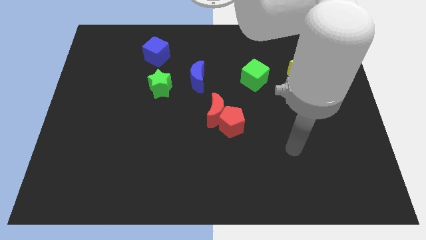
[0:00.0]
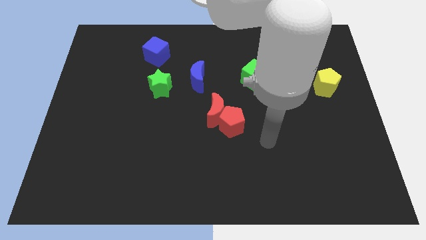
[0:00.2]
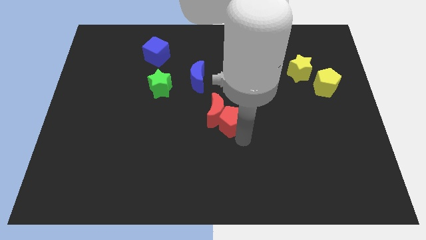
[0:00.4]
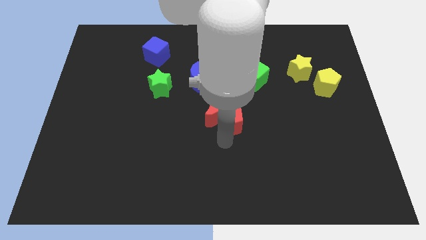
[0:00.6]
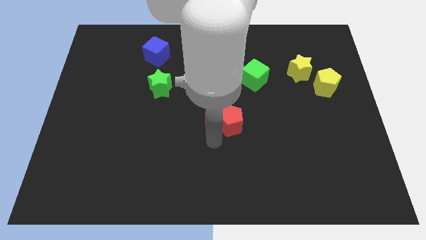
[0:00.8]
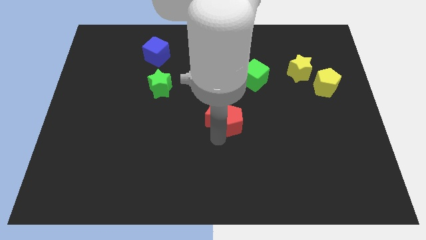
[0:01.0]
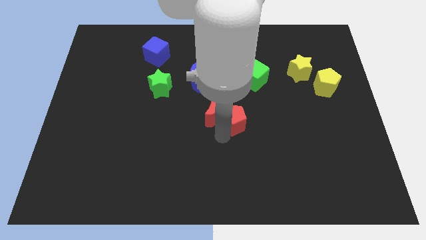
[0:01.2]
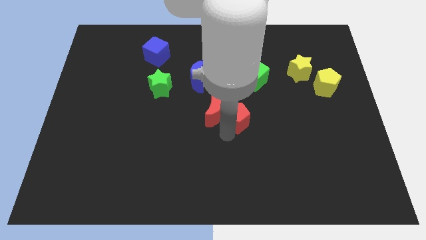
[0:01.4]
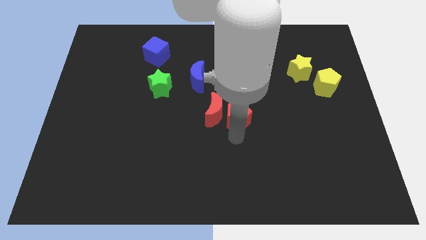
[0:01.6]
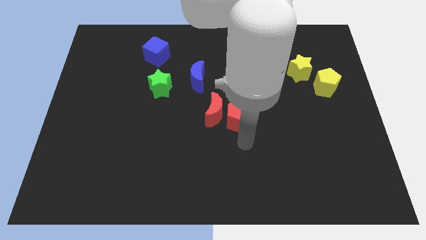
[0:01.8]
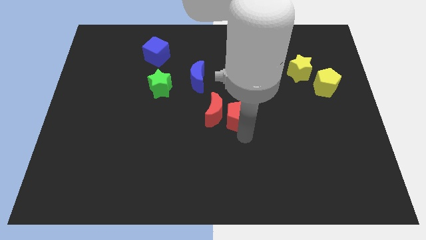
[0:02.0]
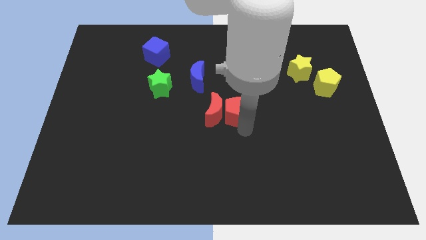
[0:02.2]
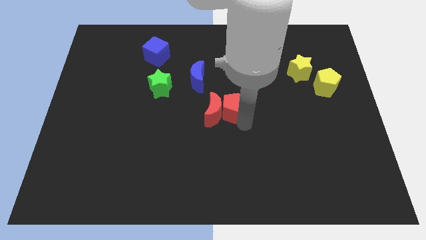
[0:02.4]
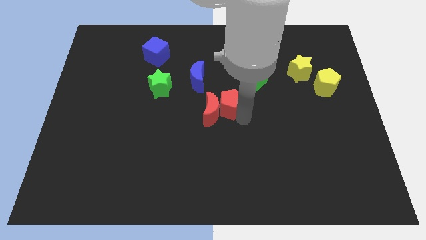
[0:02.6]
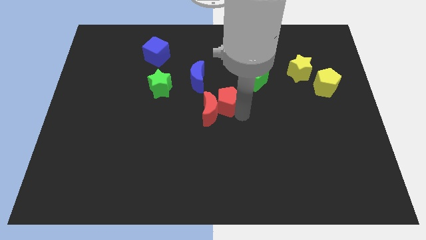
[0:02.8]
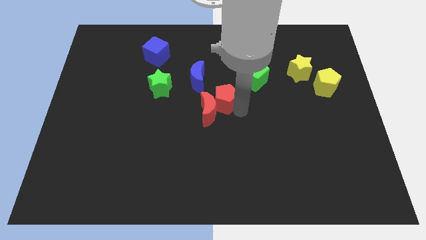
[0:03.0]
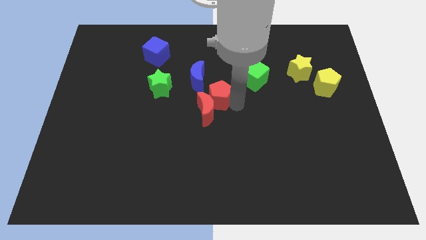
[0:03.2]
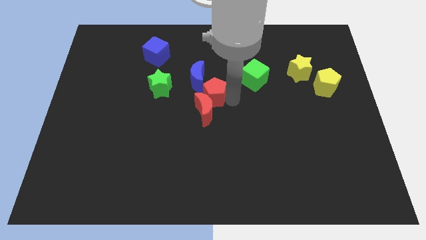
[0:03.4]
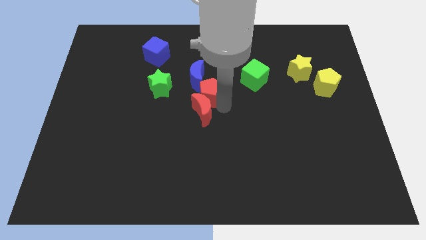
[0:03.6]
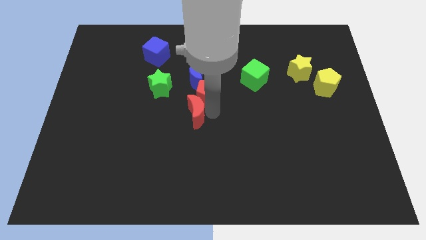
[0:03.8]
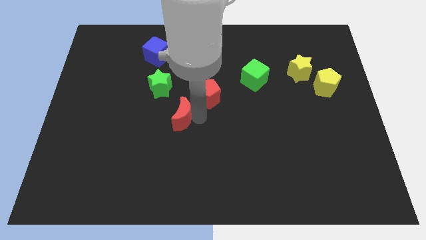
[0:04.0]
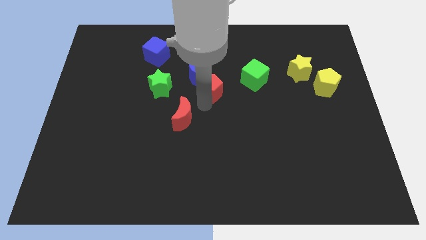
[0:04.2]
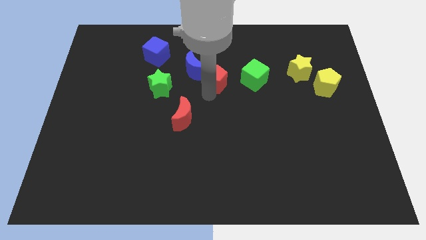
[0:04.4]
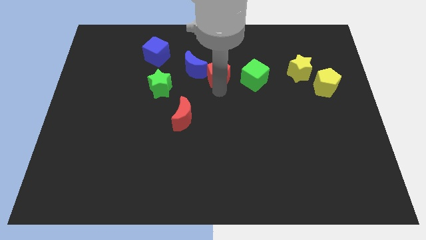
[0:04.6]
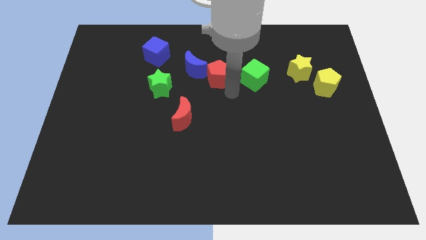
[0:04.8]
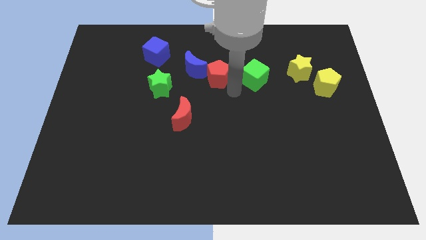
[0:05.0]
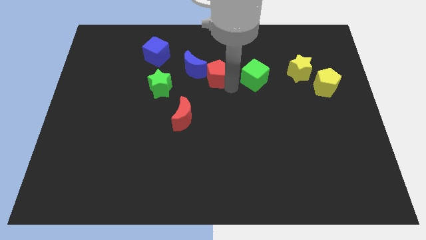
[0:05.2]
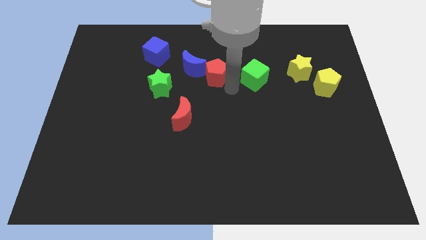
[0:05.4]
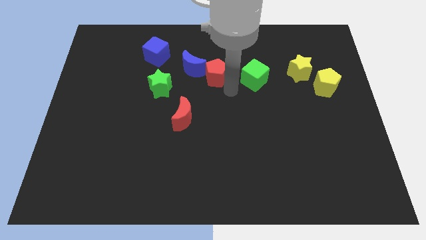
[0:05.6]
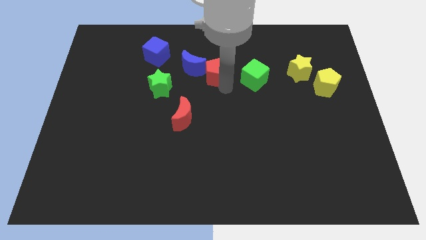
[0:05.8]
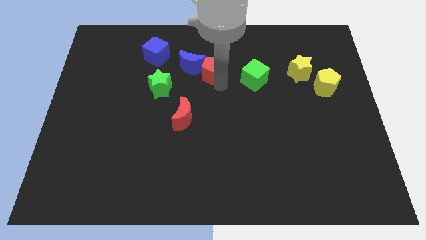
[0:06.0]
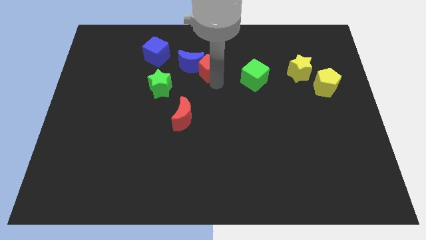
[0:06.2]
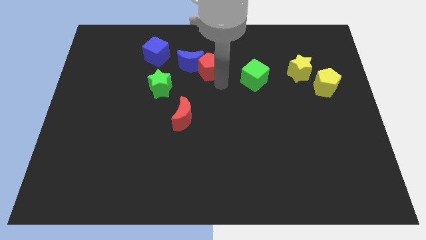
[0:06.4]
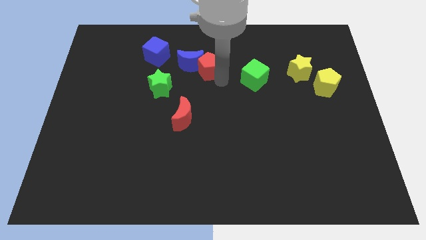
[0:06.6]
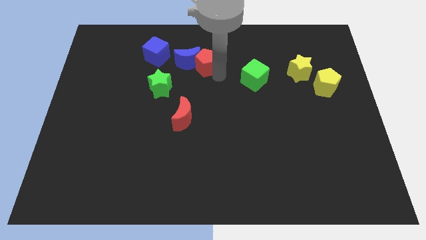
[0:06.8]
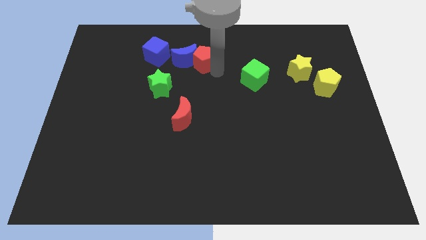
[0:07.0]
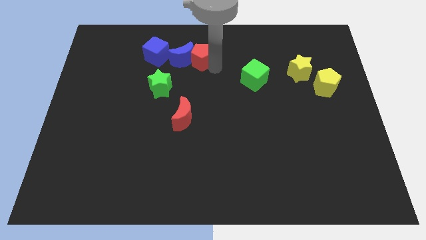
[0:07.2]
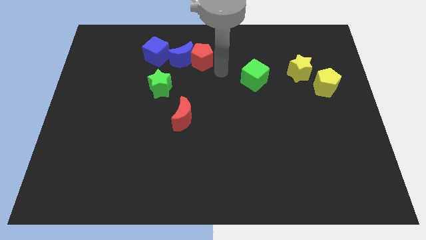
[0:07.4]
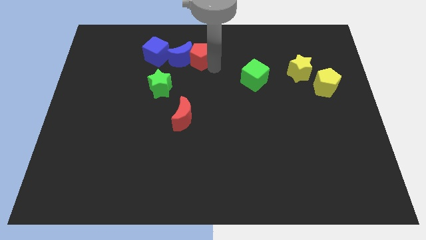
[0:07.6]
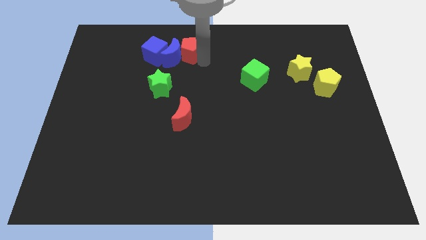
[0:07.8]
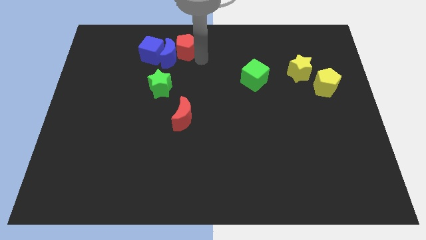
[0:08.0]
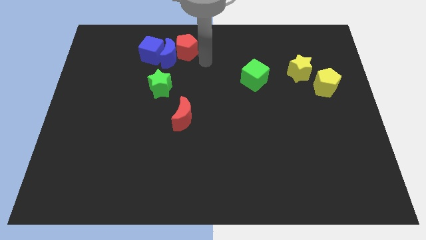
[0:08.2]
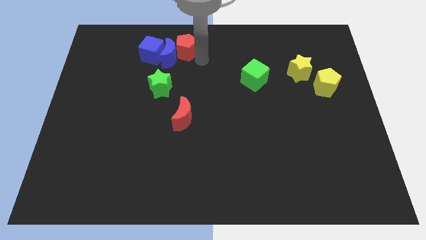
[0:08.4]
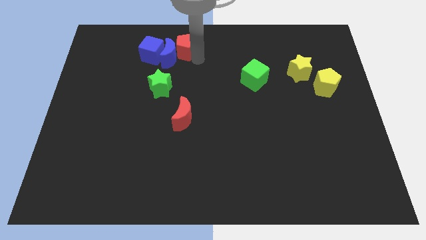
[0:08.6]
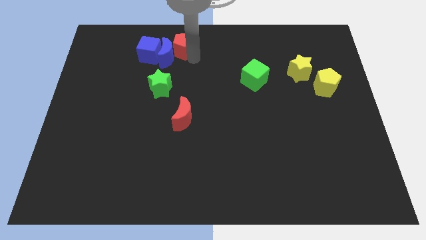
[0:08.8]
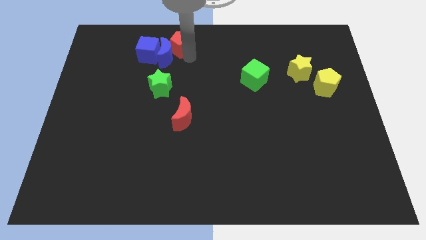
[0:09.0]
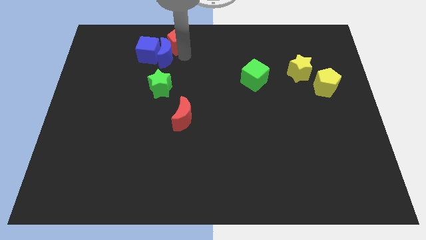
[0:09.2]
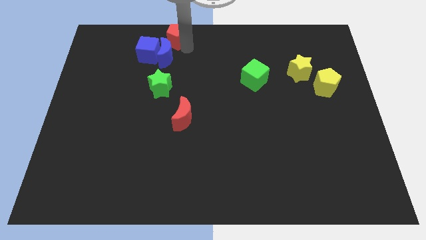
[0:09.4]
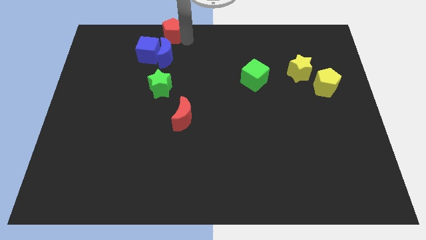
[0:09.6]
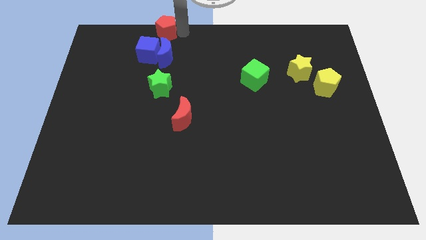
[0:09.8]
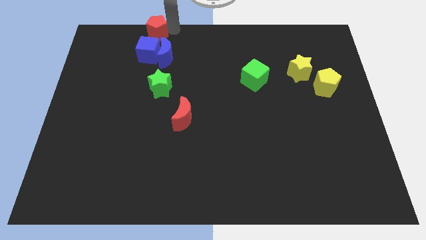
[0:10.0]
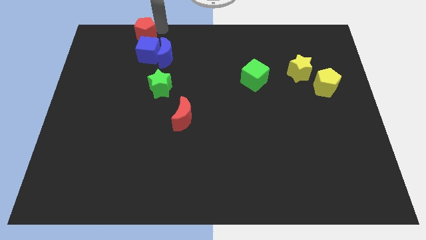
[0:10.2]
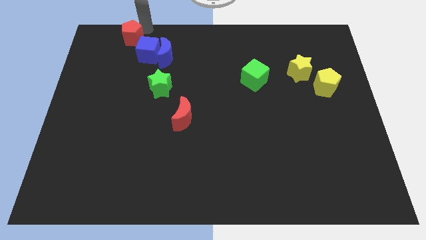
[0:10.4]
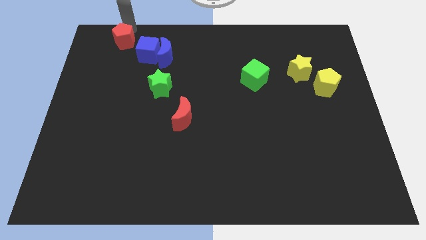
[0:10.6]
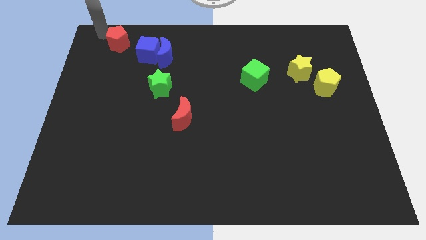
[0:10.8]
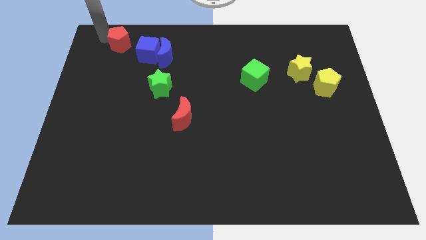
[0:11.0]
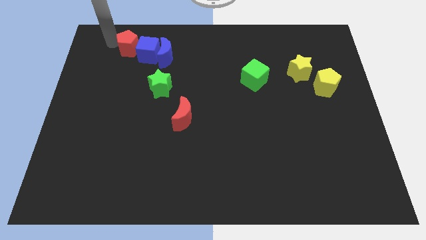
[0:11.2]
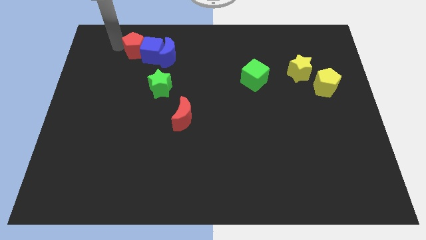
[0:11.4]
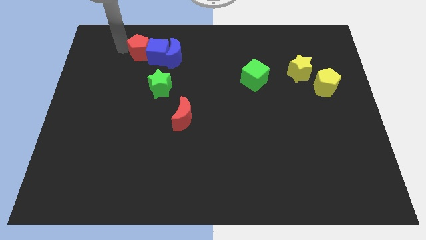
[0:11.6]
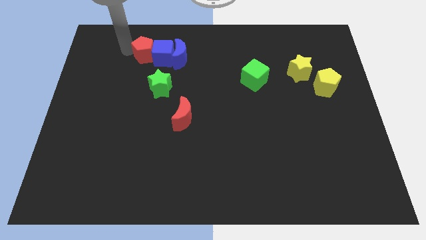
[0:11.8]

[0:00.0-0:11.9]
put the red pentagon to the top side of the green star

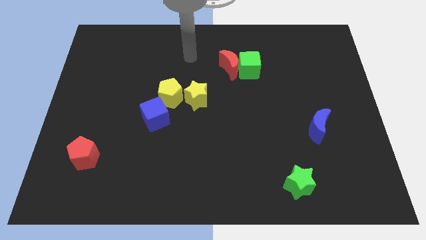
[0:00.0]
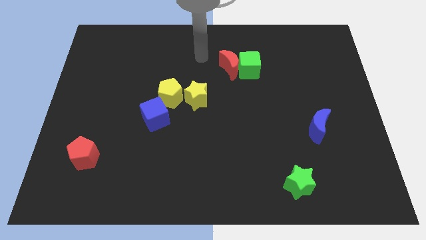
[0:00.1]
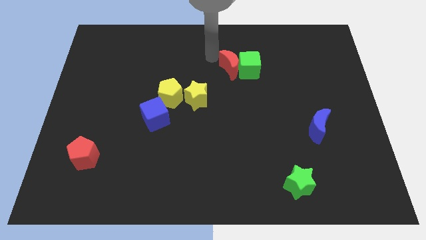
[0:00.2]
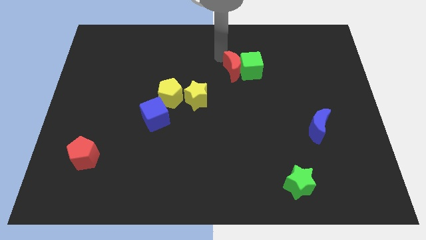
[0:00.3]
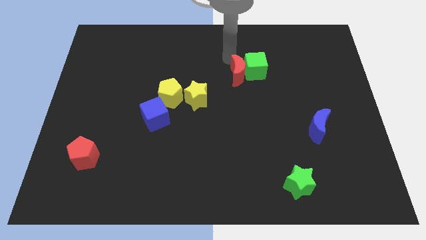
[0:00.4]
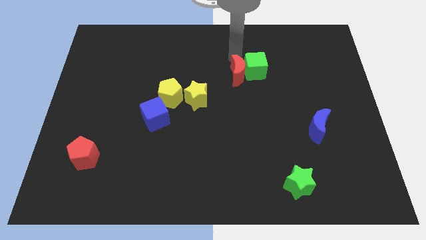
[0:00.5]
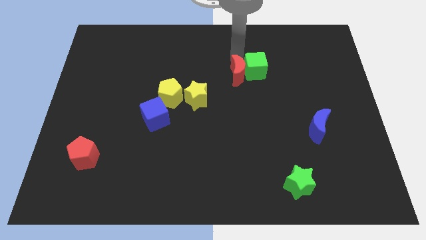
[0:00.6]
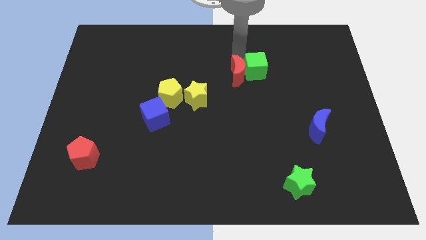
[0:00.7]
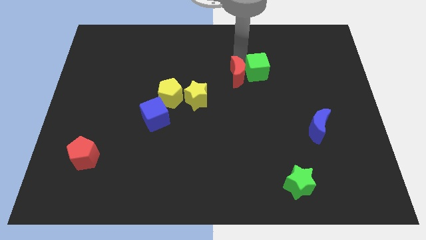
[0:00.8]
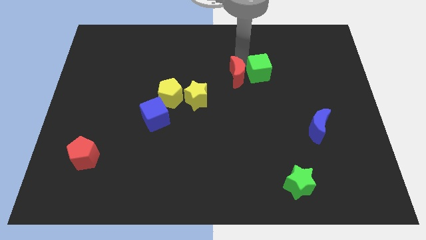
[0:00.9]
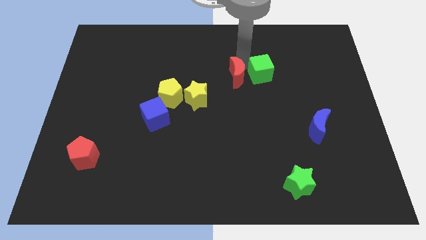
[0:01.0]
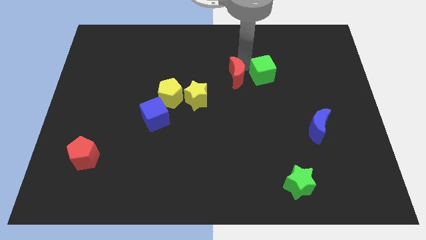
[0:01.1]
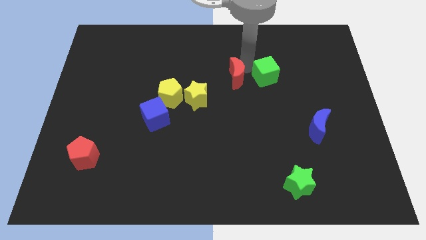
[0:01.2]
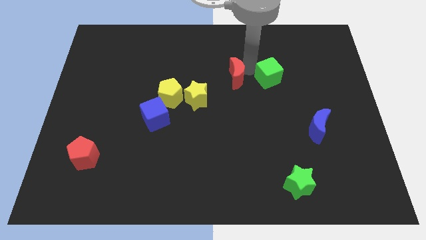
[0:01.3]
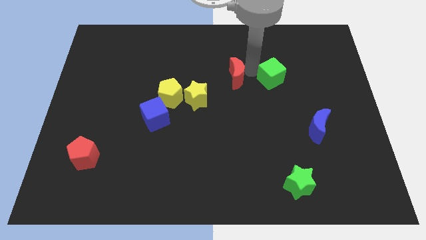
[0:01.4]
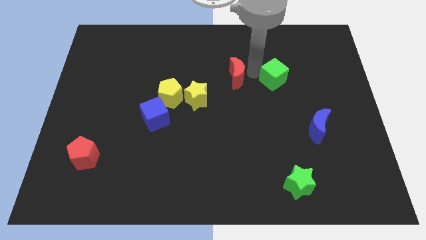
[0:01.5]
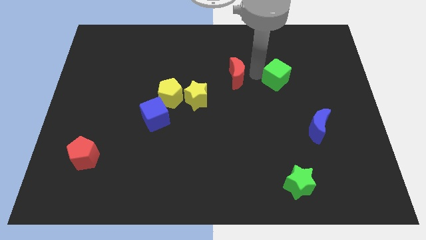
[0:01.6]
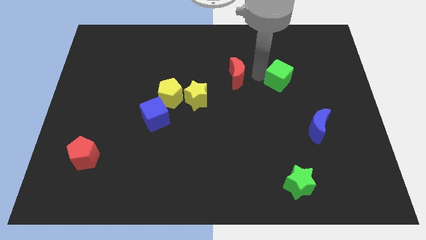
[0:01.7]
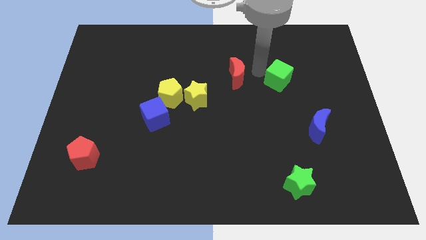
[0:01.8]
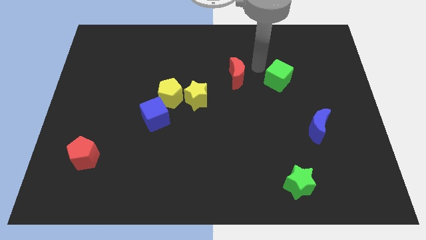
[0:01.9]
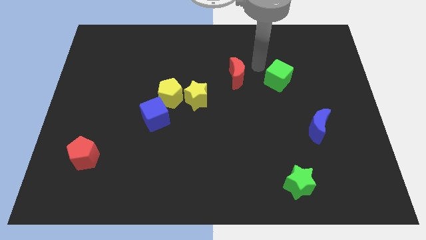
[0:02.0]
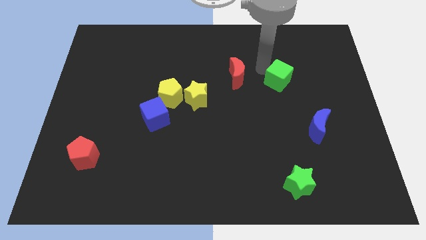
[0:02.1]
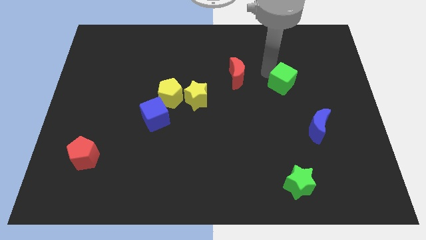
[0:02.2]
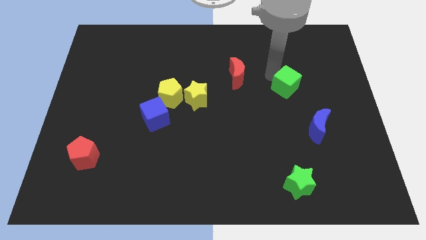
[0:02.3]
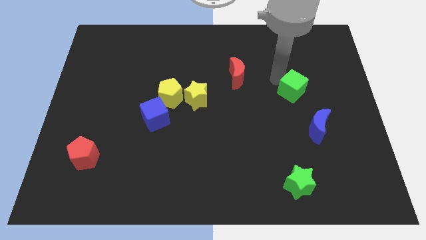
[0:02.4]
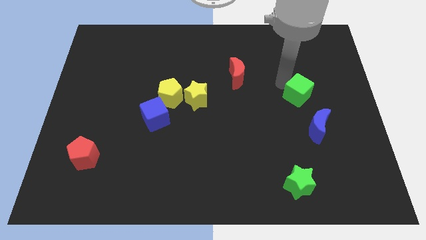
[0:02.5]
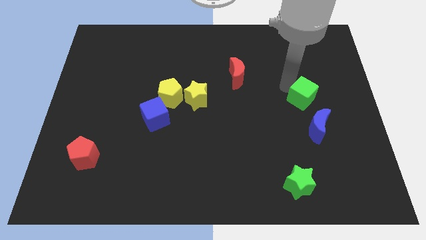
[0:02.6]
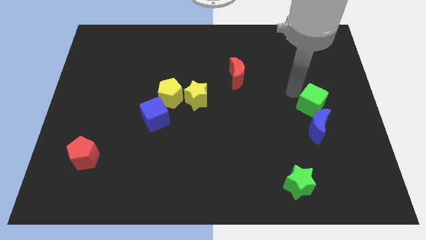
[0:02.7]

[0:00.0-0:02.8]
move the green cube to the top right side of the blue moon
